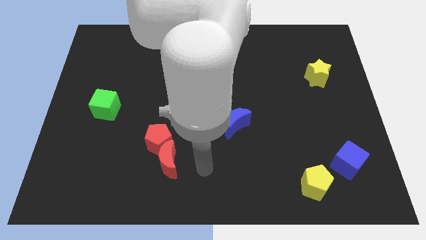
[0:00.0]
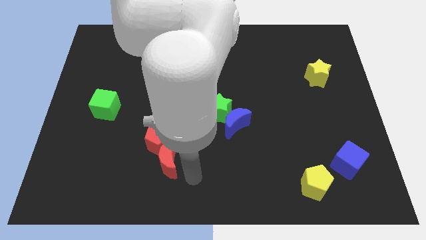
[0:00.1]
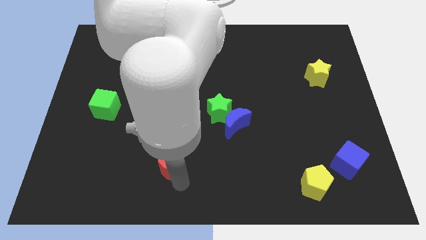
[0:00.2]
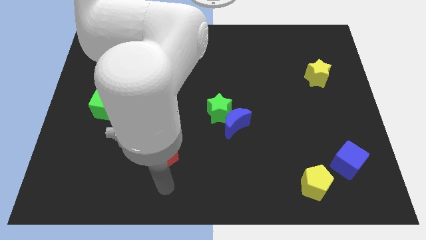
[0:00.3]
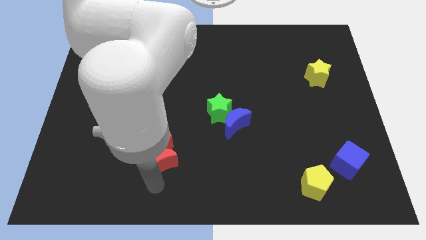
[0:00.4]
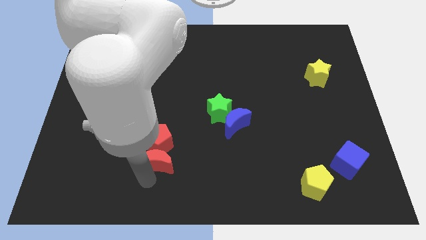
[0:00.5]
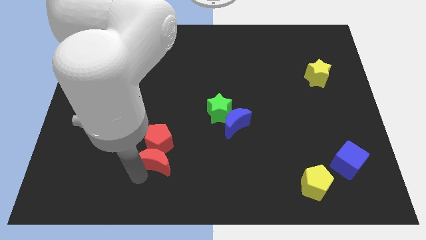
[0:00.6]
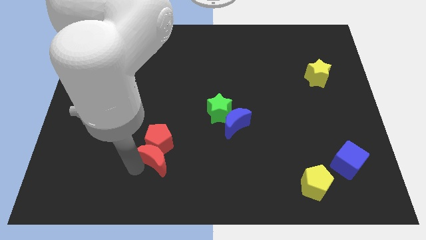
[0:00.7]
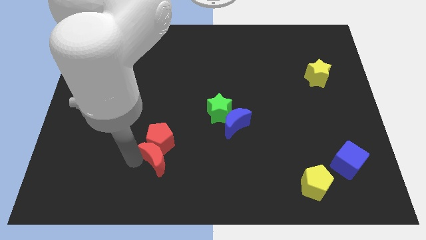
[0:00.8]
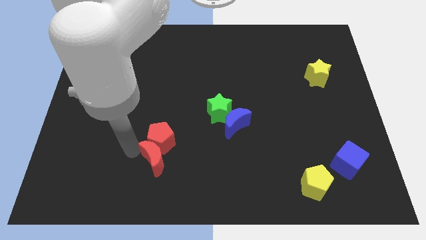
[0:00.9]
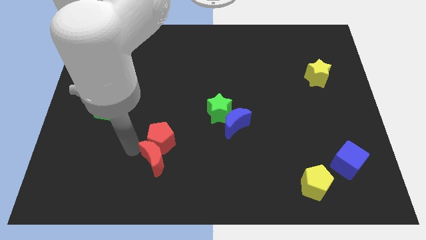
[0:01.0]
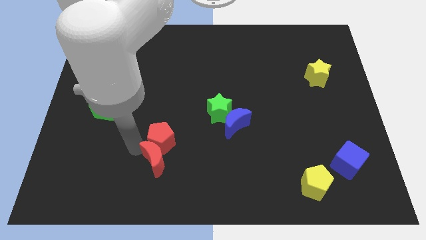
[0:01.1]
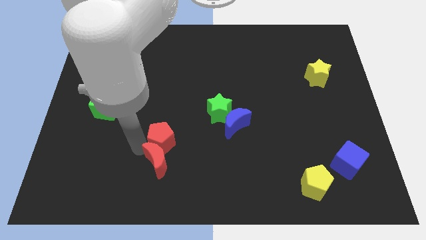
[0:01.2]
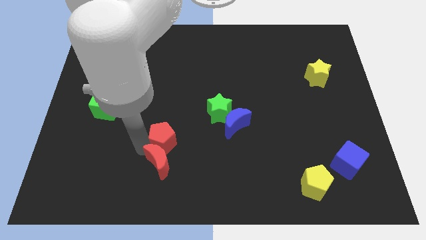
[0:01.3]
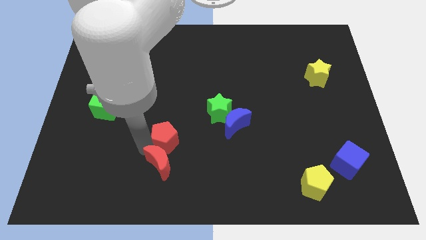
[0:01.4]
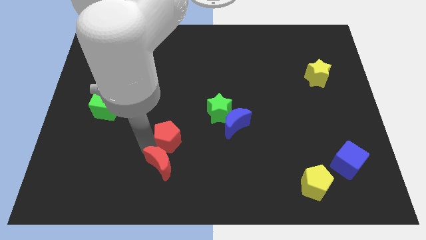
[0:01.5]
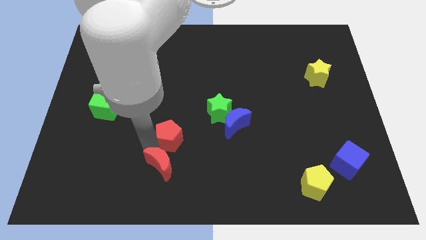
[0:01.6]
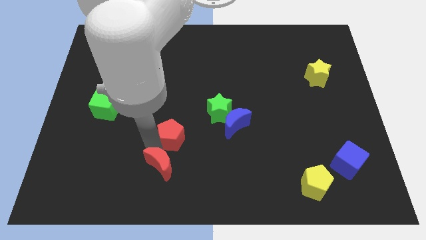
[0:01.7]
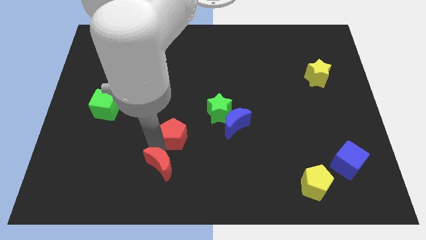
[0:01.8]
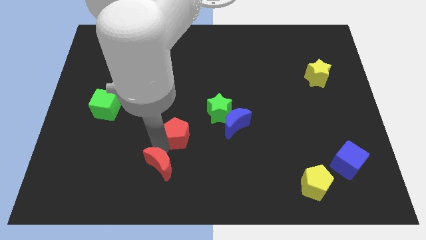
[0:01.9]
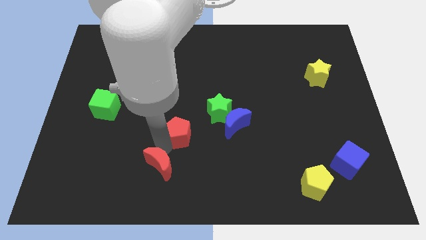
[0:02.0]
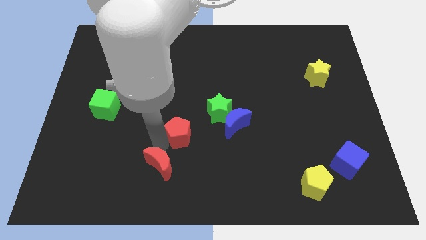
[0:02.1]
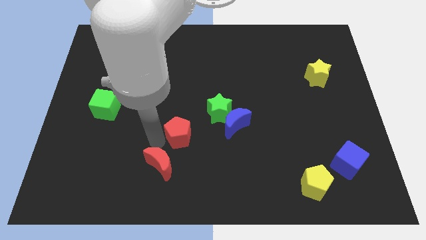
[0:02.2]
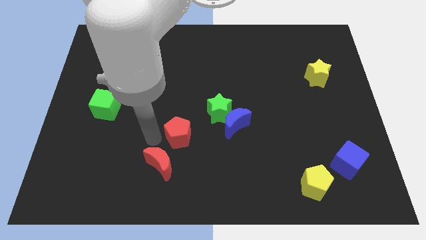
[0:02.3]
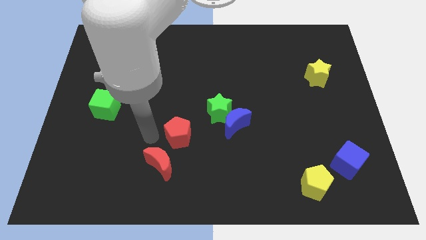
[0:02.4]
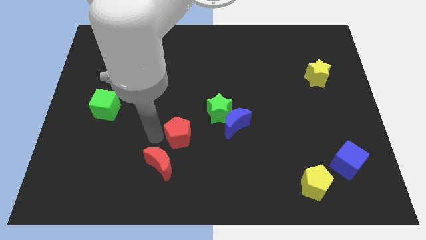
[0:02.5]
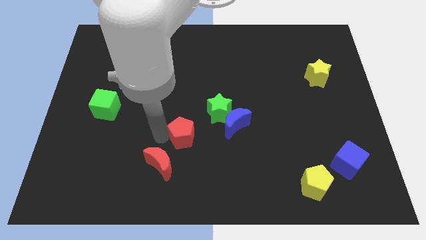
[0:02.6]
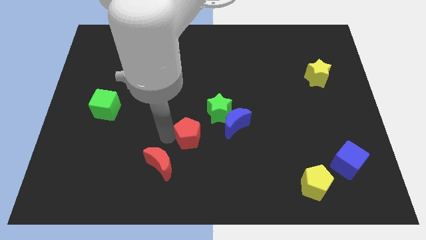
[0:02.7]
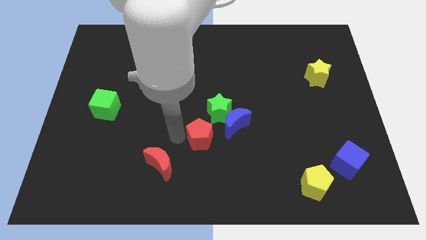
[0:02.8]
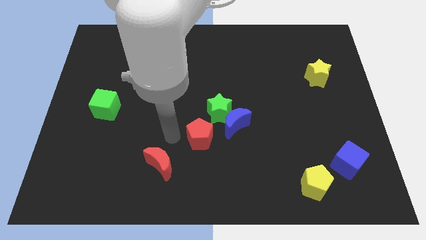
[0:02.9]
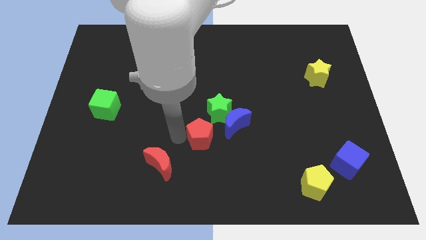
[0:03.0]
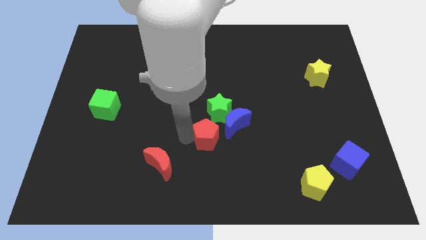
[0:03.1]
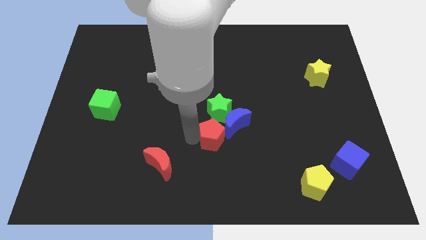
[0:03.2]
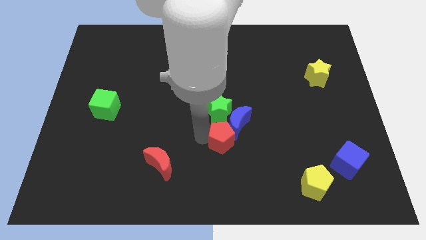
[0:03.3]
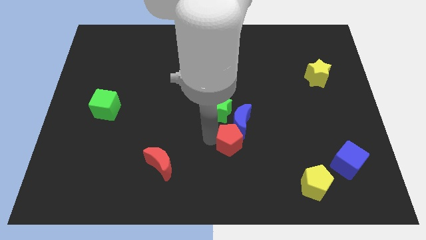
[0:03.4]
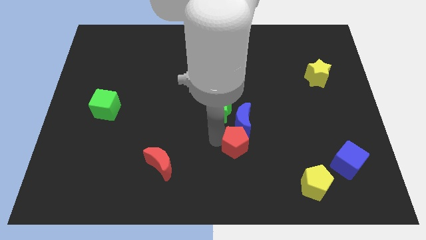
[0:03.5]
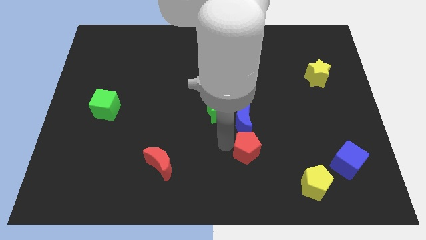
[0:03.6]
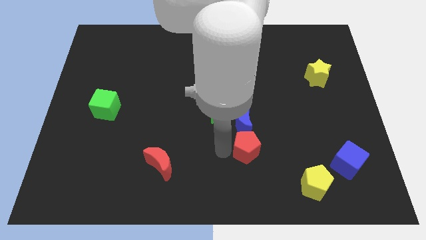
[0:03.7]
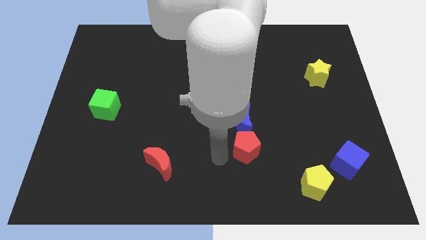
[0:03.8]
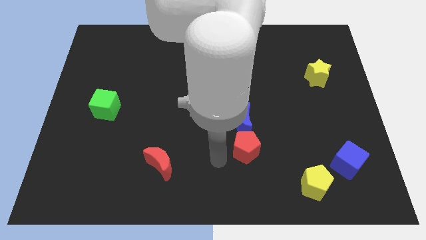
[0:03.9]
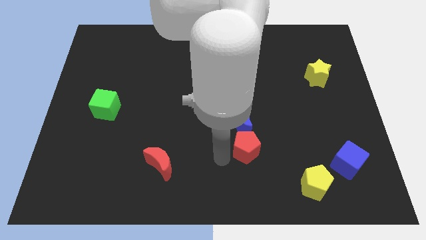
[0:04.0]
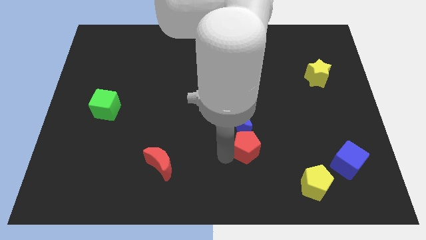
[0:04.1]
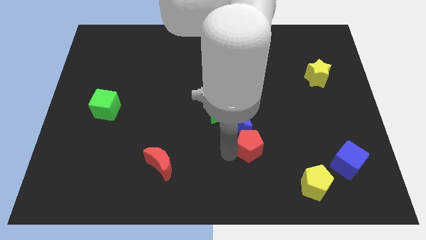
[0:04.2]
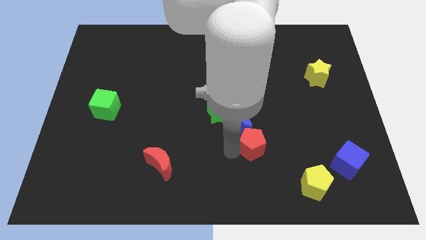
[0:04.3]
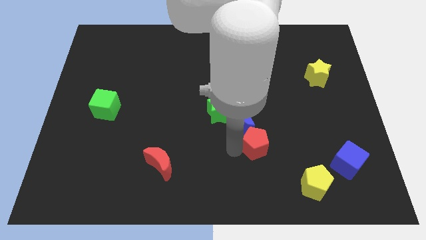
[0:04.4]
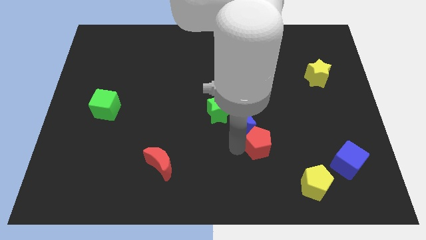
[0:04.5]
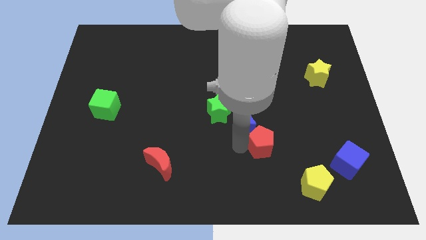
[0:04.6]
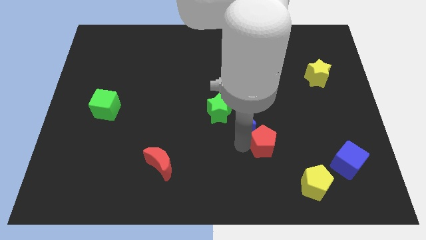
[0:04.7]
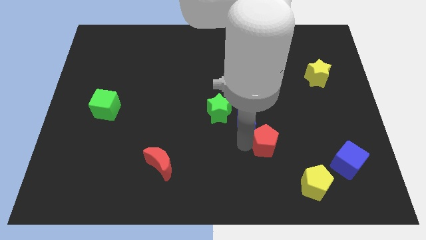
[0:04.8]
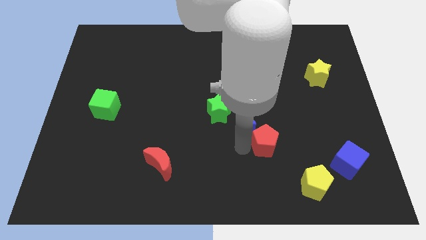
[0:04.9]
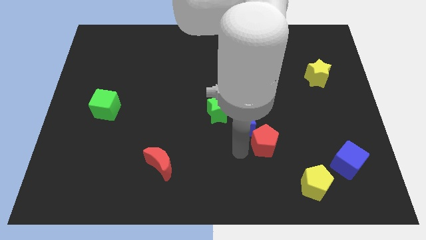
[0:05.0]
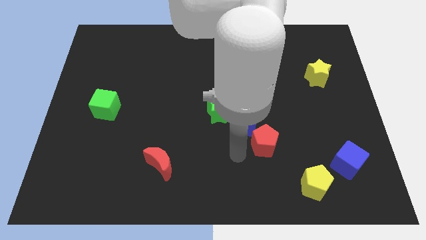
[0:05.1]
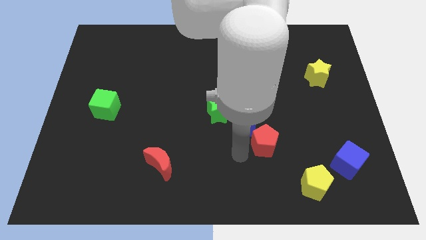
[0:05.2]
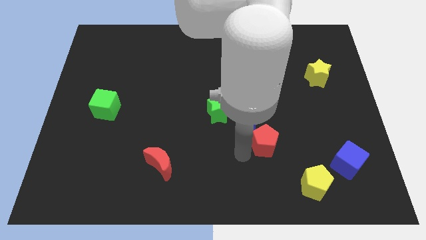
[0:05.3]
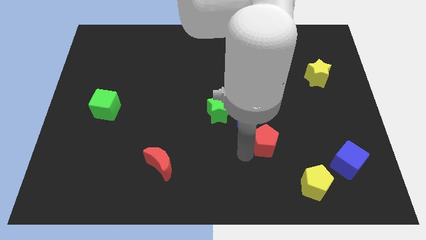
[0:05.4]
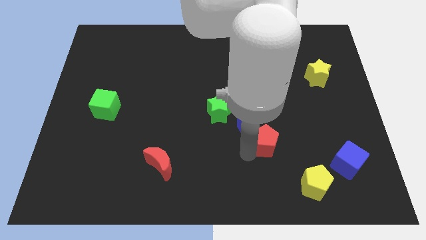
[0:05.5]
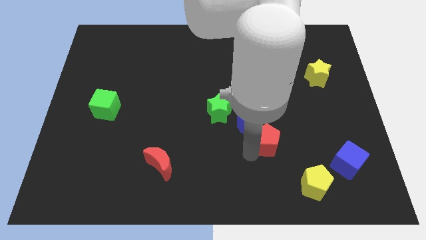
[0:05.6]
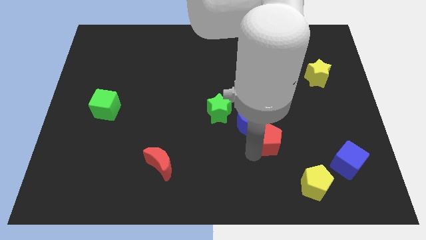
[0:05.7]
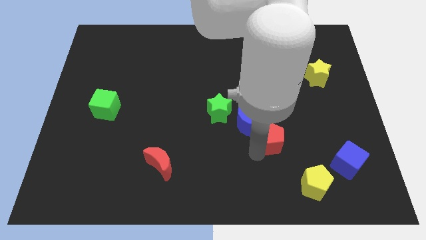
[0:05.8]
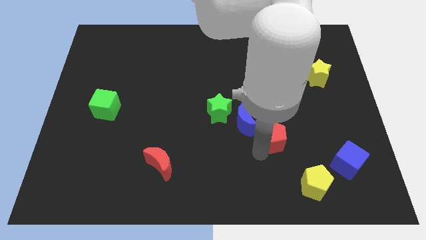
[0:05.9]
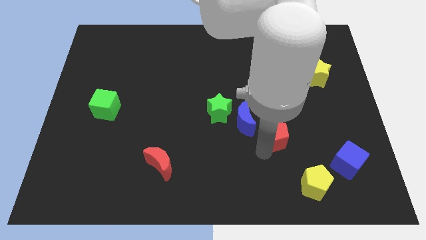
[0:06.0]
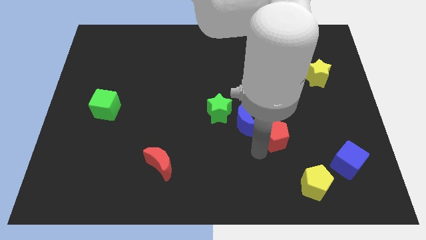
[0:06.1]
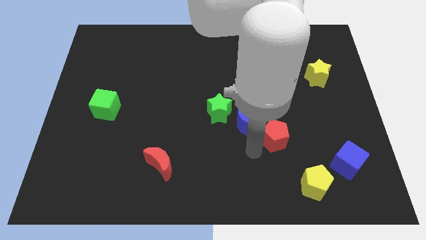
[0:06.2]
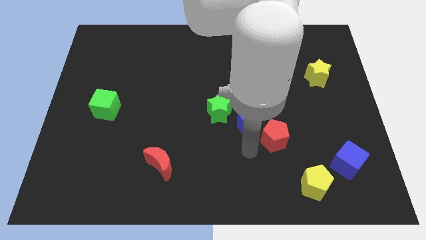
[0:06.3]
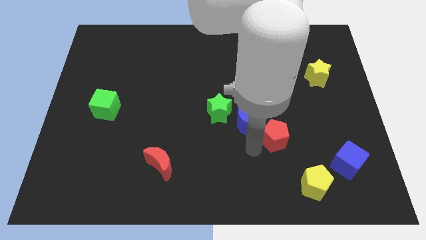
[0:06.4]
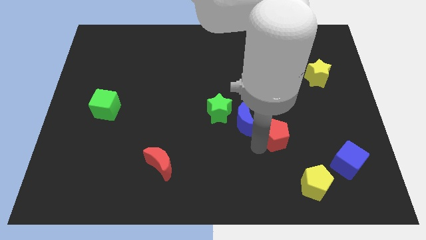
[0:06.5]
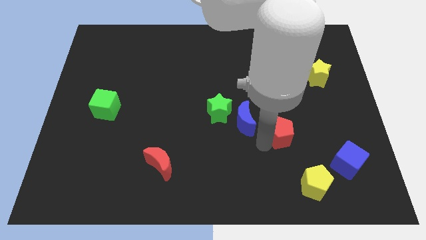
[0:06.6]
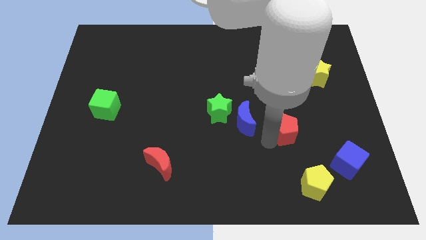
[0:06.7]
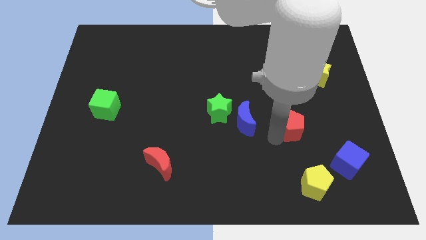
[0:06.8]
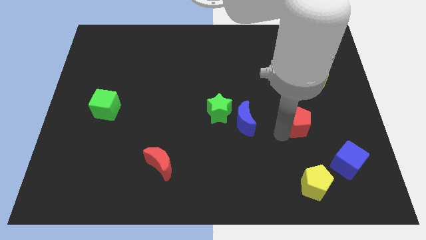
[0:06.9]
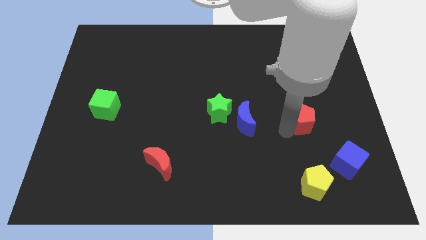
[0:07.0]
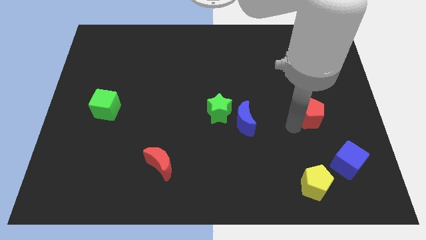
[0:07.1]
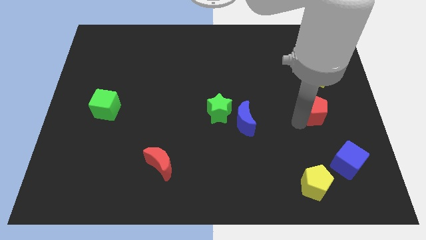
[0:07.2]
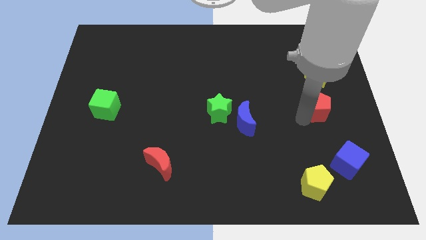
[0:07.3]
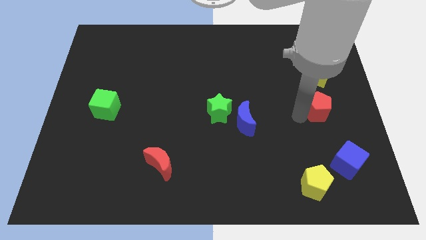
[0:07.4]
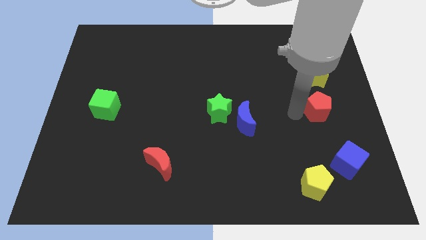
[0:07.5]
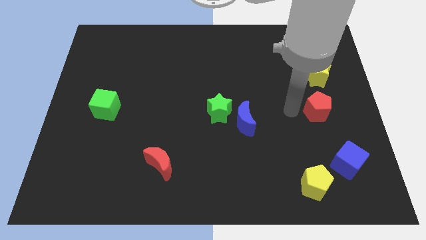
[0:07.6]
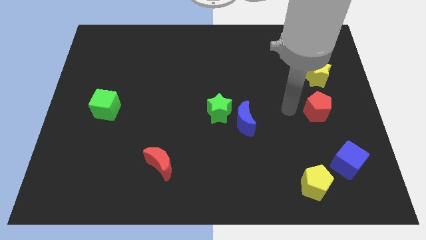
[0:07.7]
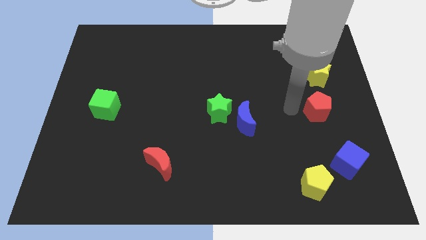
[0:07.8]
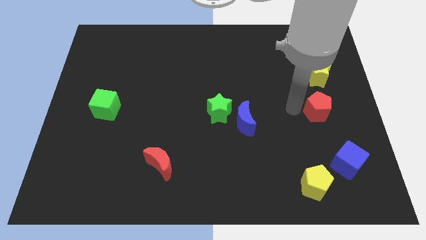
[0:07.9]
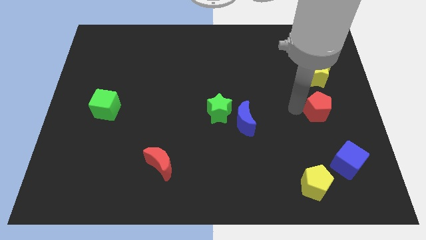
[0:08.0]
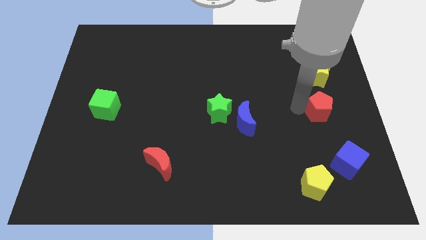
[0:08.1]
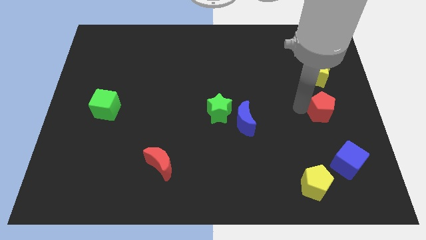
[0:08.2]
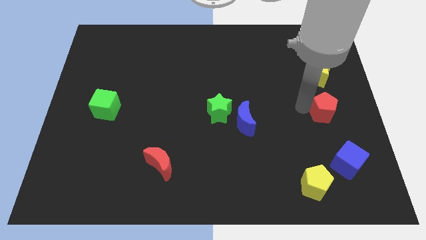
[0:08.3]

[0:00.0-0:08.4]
push the red pentagon to the right side
